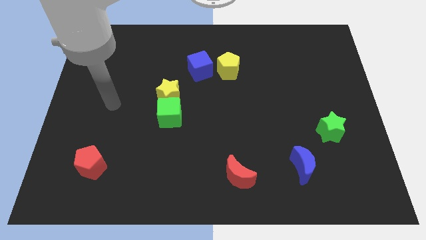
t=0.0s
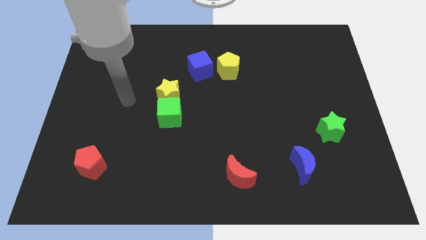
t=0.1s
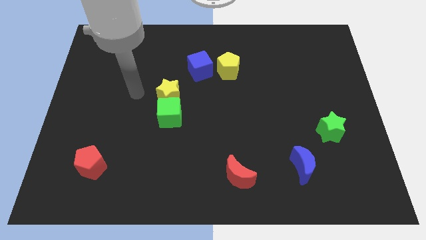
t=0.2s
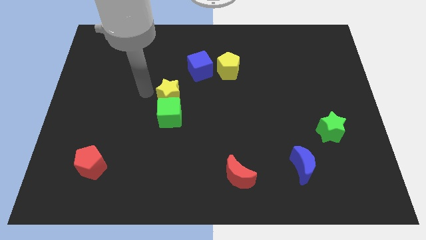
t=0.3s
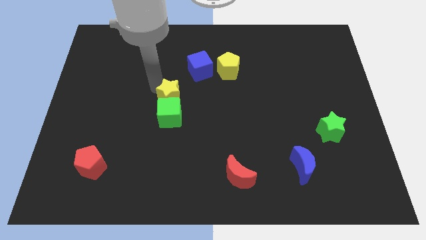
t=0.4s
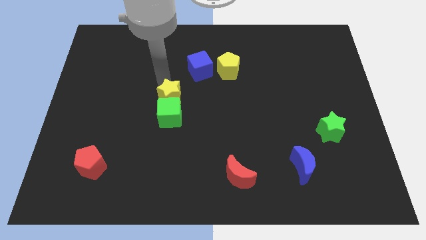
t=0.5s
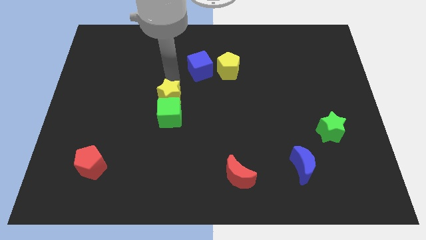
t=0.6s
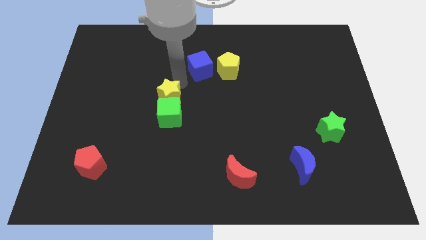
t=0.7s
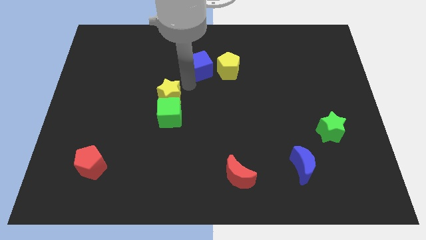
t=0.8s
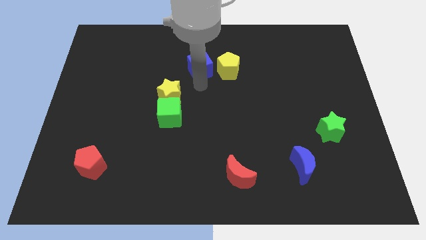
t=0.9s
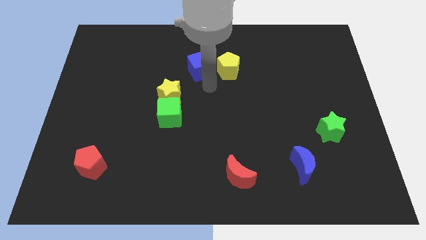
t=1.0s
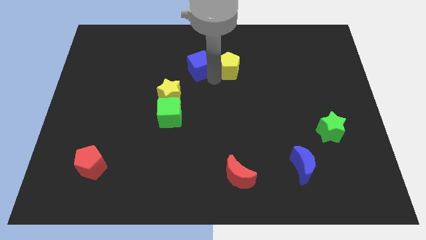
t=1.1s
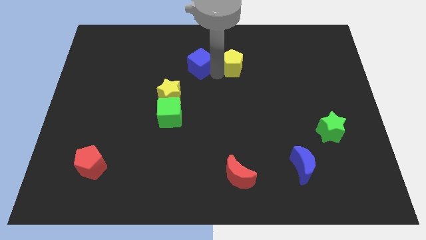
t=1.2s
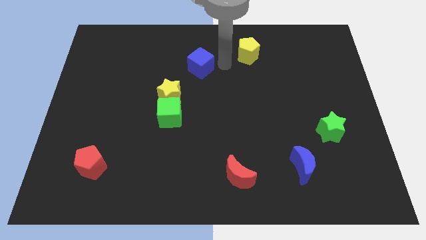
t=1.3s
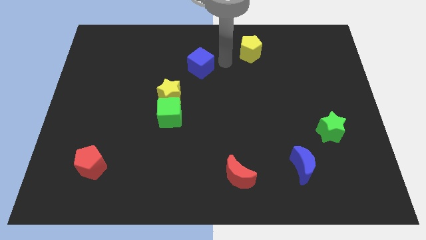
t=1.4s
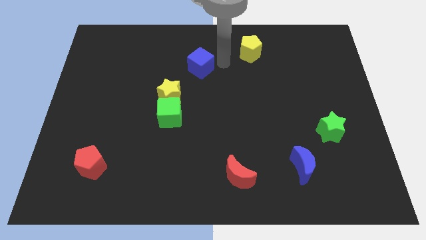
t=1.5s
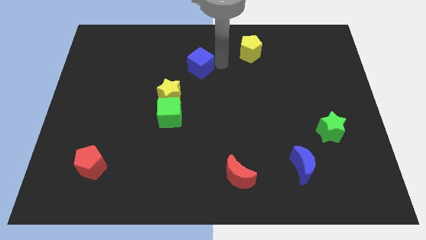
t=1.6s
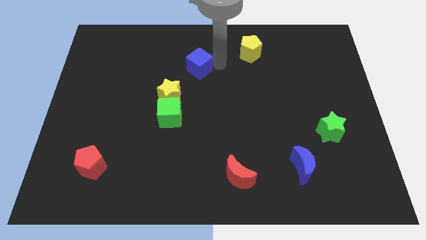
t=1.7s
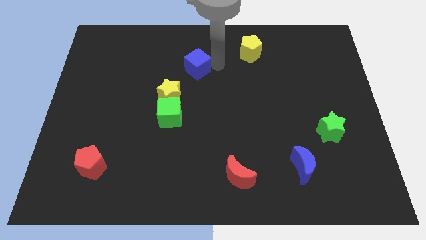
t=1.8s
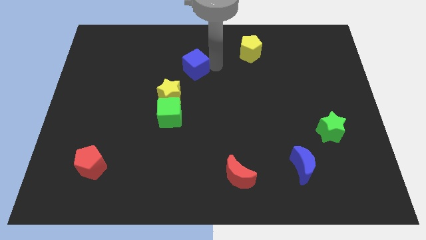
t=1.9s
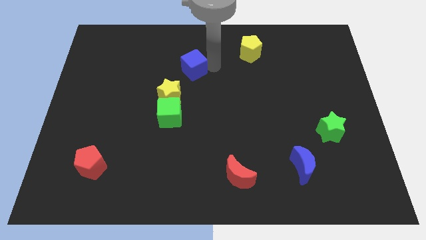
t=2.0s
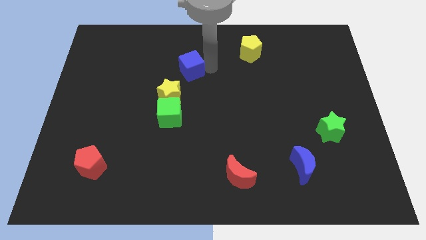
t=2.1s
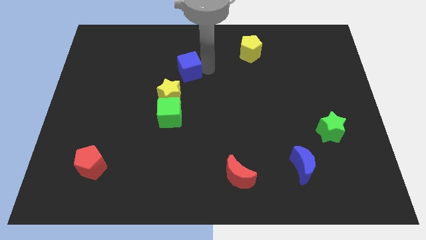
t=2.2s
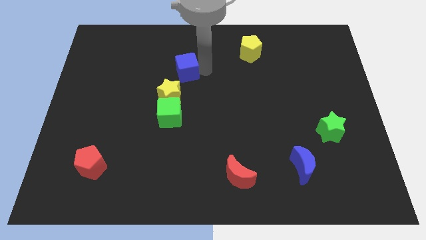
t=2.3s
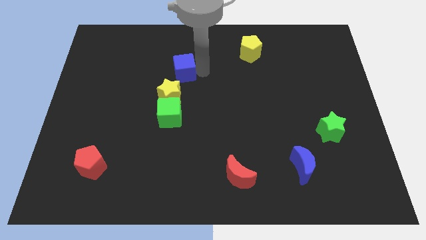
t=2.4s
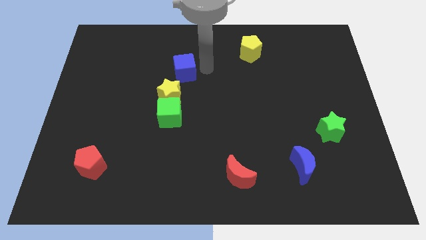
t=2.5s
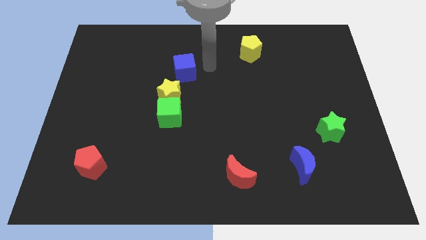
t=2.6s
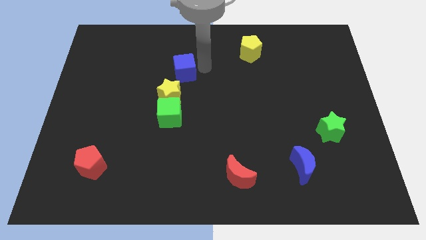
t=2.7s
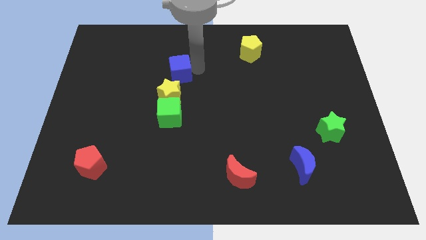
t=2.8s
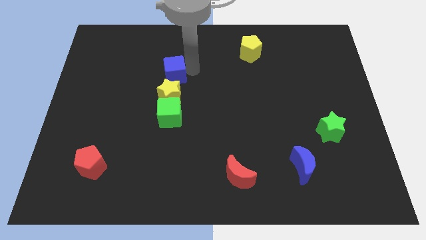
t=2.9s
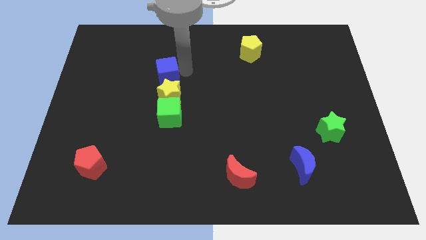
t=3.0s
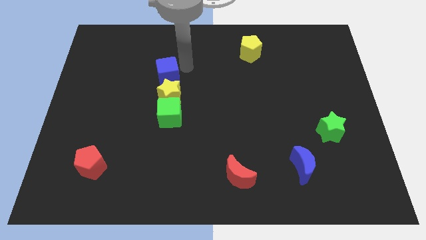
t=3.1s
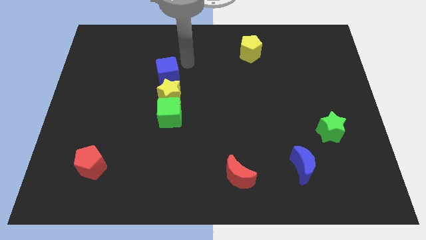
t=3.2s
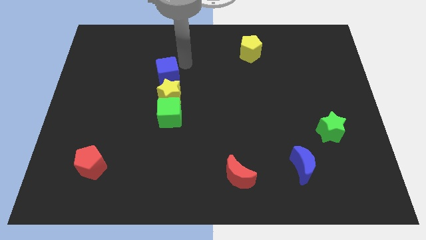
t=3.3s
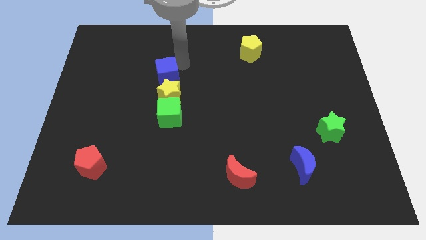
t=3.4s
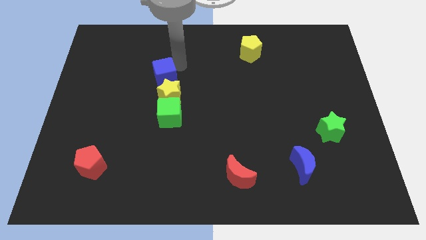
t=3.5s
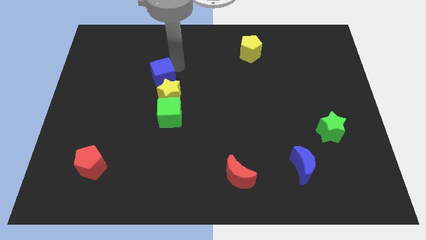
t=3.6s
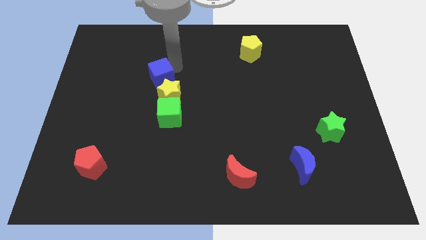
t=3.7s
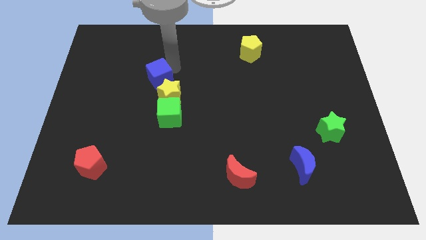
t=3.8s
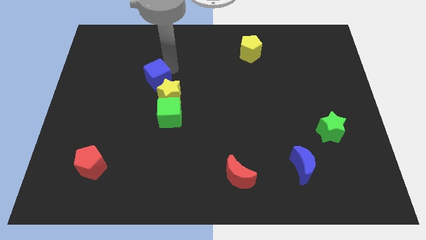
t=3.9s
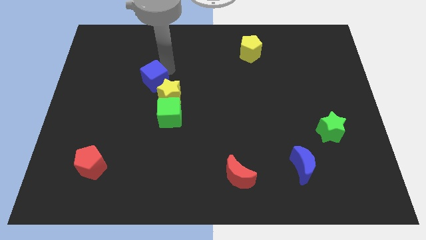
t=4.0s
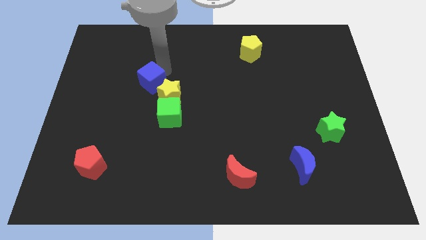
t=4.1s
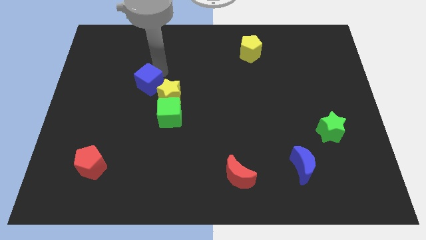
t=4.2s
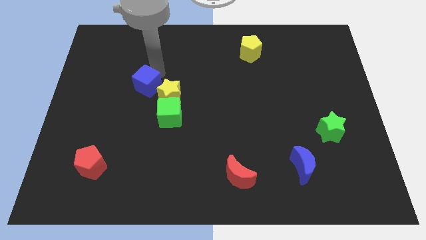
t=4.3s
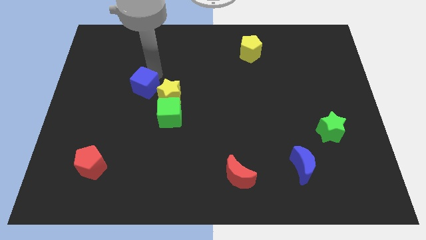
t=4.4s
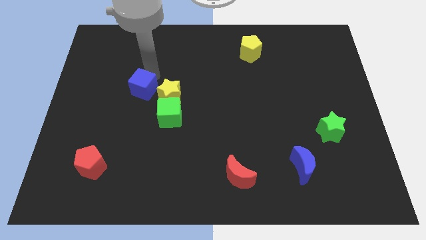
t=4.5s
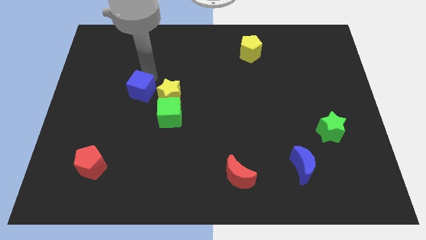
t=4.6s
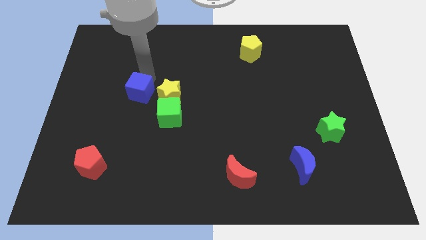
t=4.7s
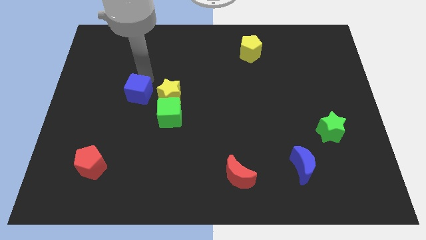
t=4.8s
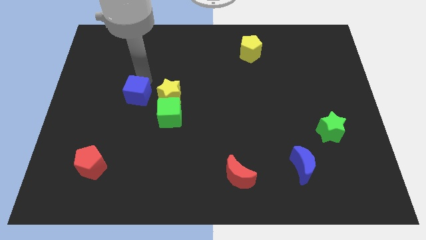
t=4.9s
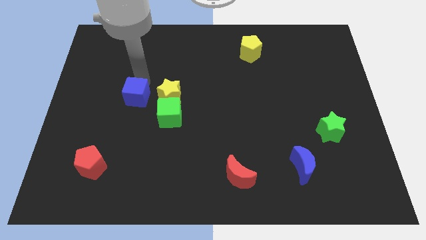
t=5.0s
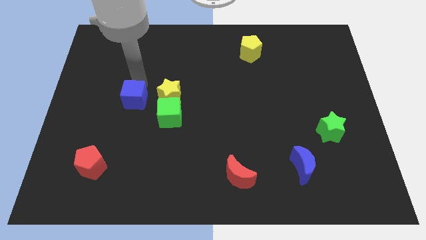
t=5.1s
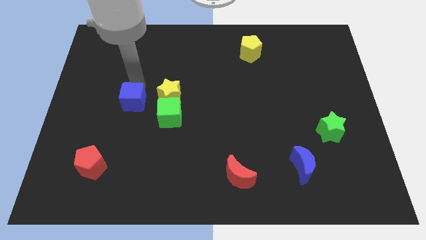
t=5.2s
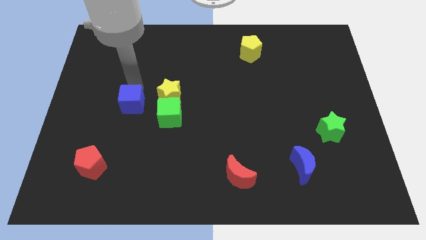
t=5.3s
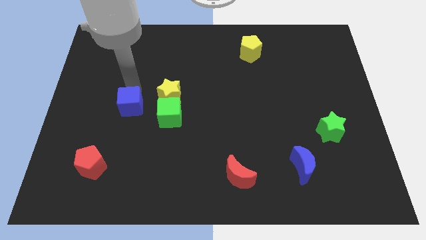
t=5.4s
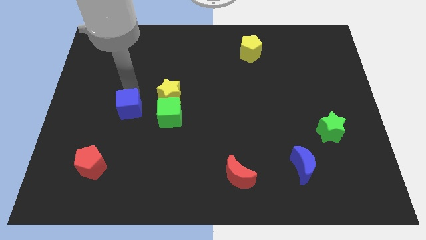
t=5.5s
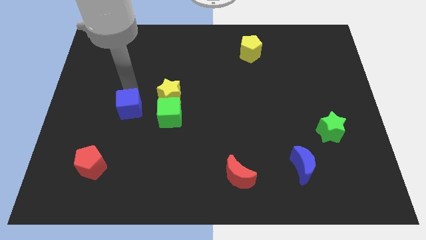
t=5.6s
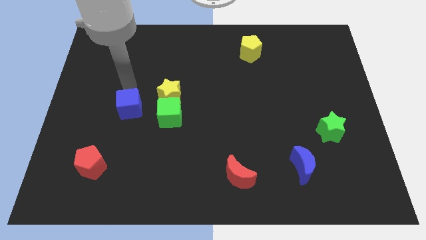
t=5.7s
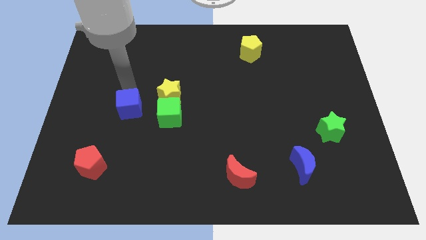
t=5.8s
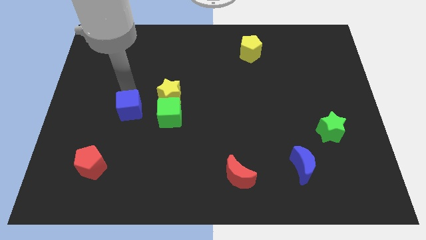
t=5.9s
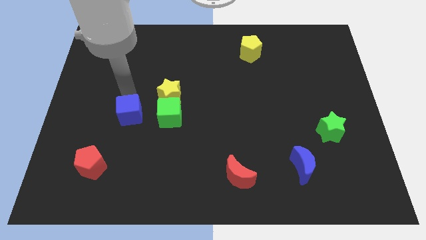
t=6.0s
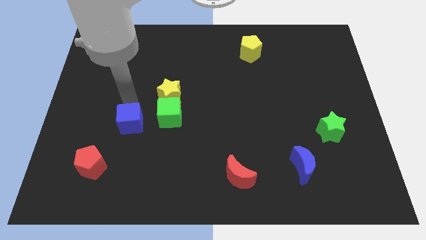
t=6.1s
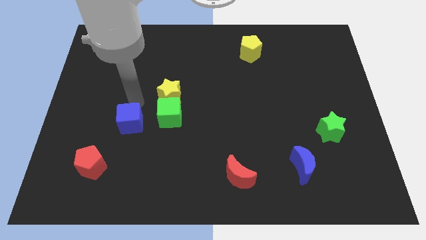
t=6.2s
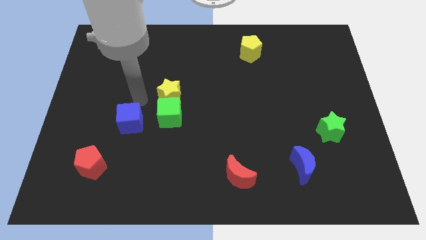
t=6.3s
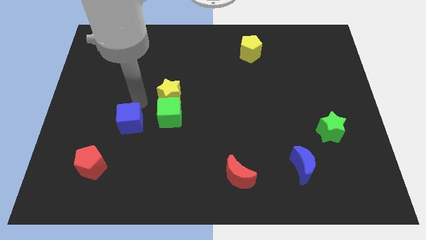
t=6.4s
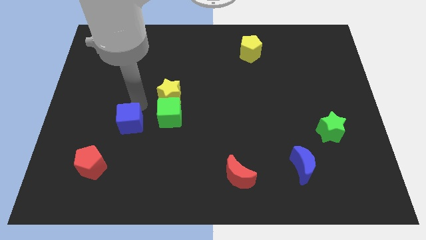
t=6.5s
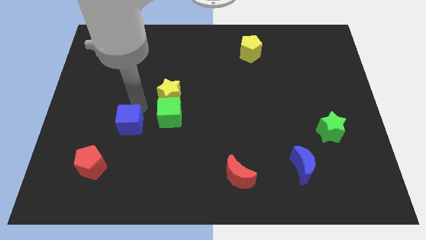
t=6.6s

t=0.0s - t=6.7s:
put the blue cube diagonally up and to the right of the red pentagon

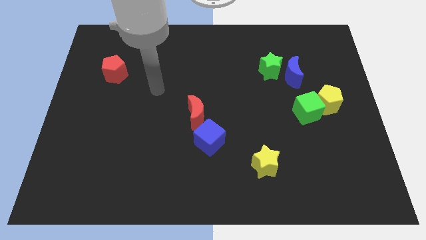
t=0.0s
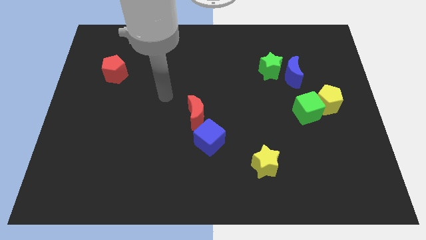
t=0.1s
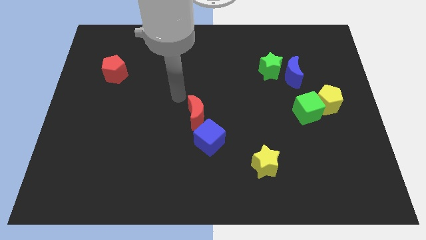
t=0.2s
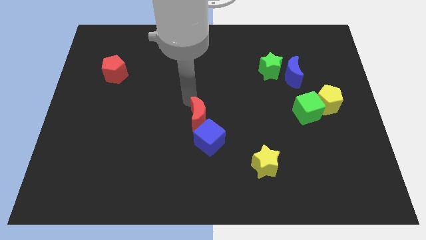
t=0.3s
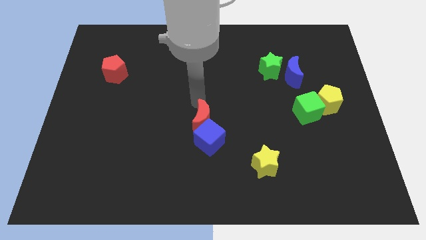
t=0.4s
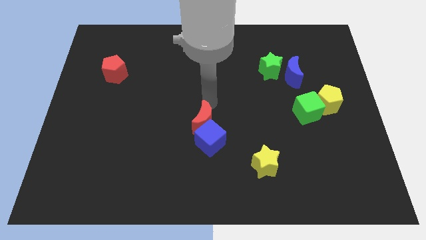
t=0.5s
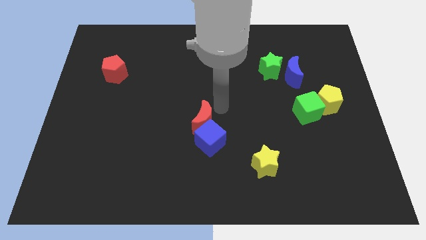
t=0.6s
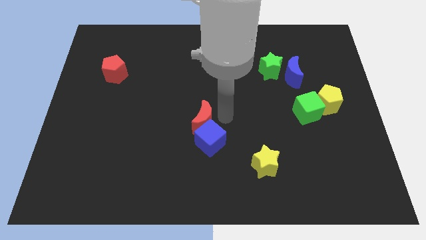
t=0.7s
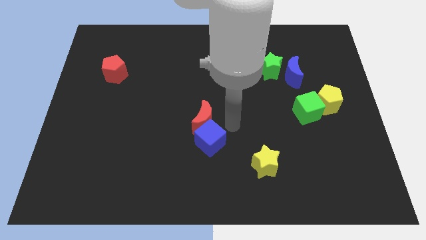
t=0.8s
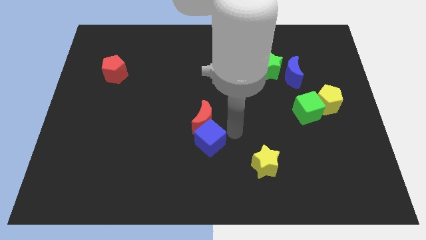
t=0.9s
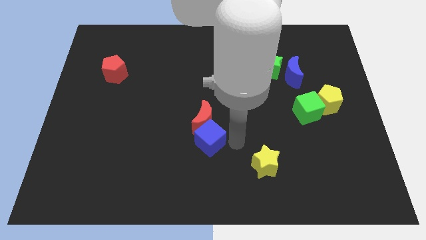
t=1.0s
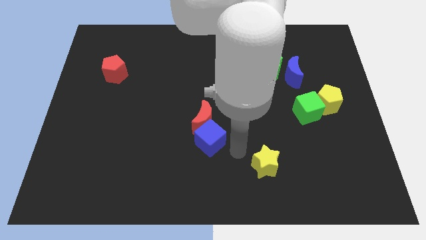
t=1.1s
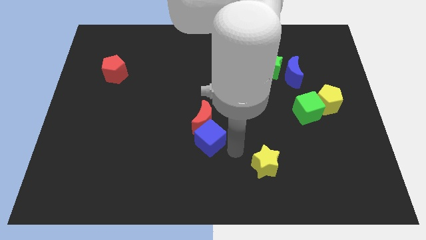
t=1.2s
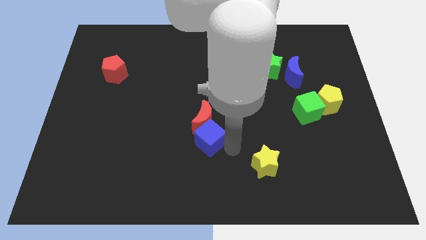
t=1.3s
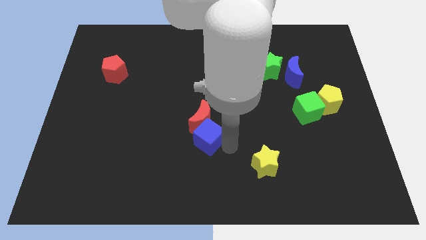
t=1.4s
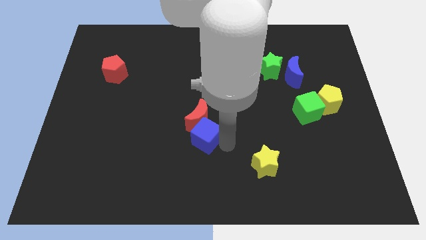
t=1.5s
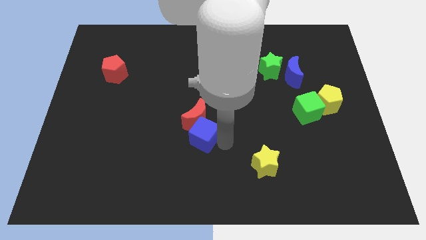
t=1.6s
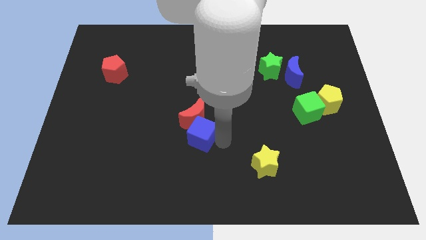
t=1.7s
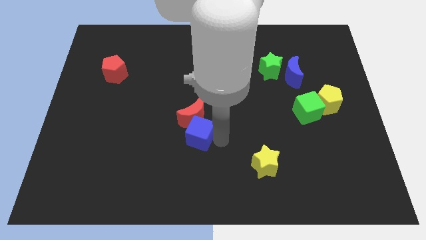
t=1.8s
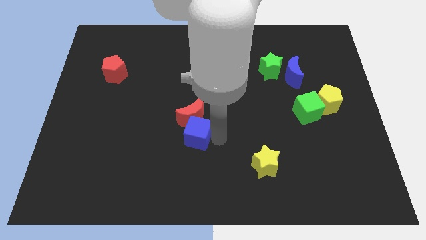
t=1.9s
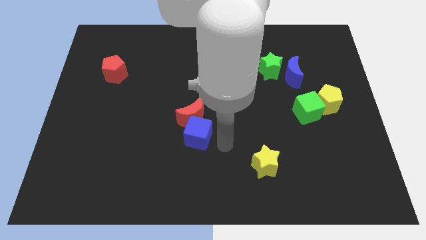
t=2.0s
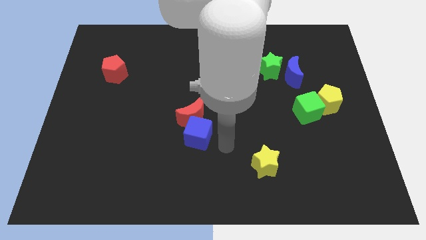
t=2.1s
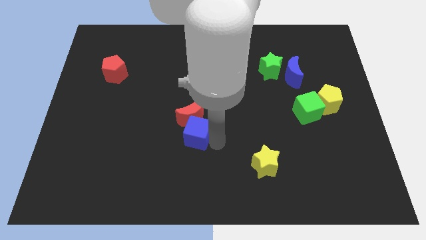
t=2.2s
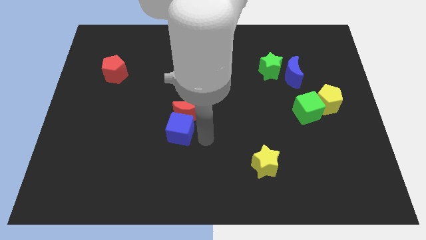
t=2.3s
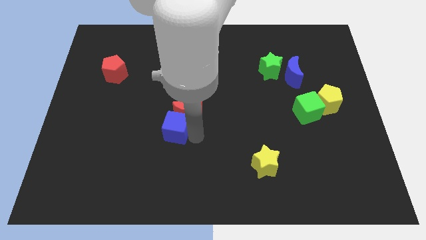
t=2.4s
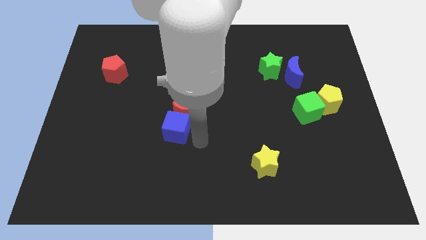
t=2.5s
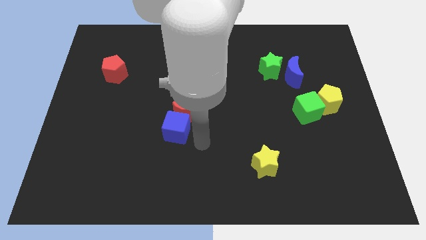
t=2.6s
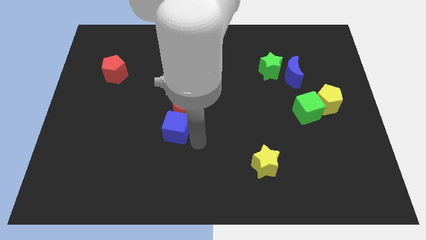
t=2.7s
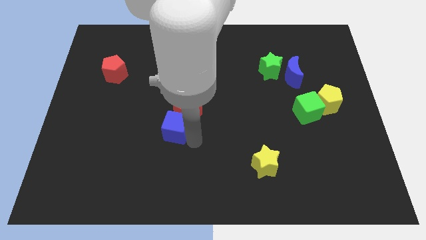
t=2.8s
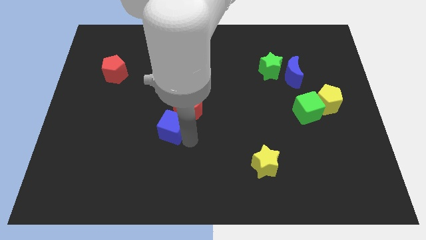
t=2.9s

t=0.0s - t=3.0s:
put the blue cube to the left side of the red moon
